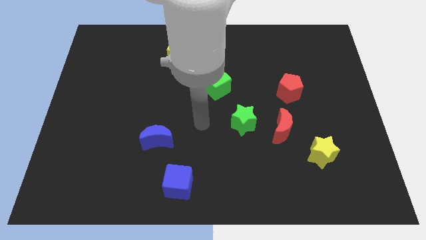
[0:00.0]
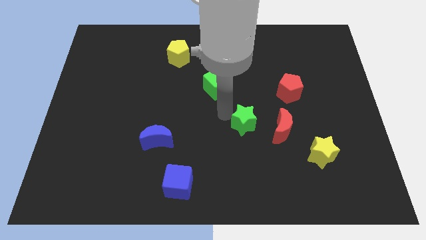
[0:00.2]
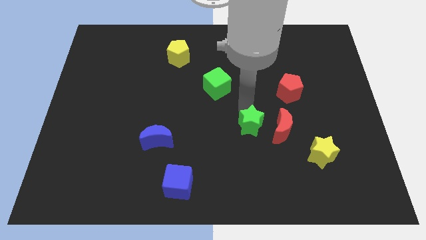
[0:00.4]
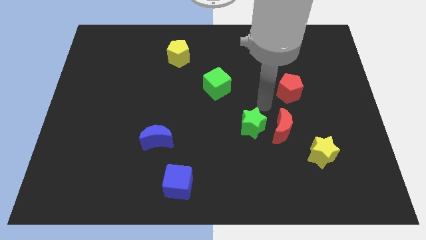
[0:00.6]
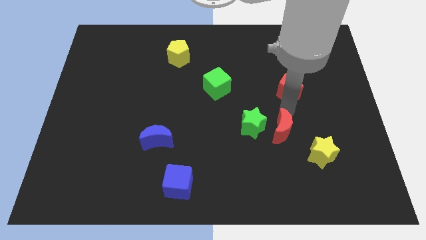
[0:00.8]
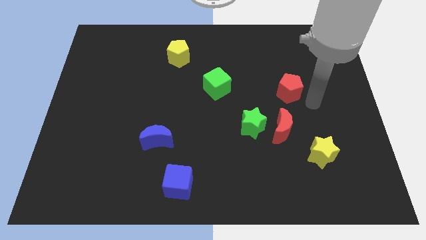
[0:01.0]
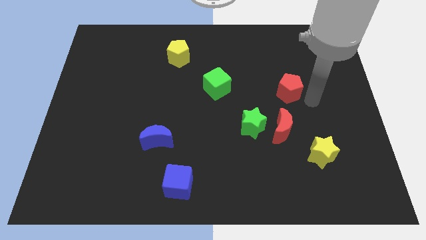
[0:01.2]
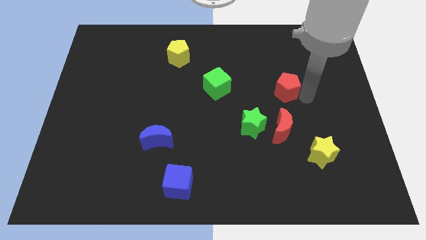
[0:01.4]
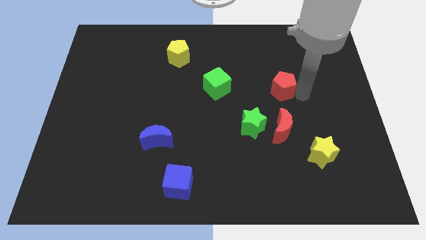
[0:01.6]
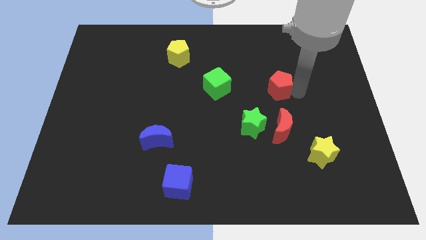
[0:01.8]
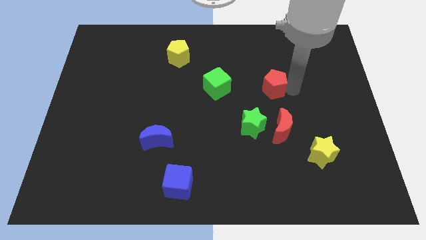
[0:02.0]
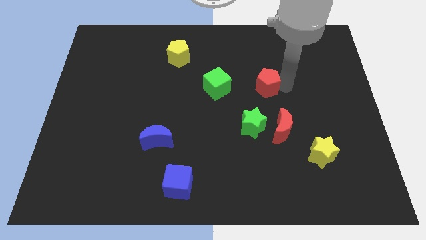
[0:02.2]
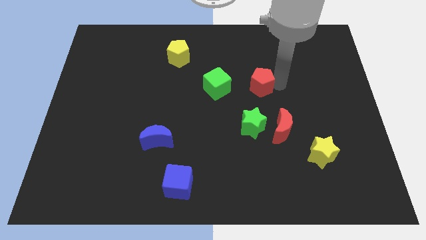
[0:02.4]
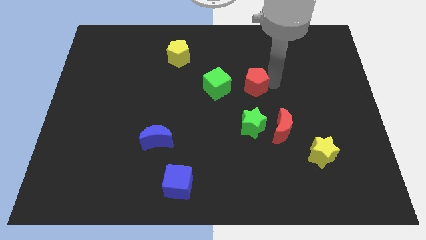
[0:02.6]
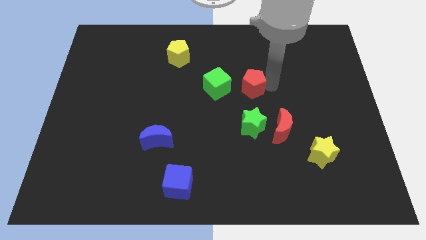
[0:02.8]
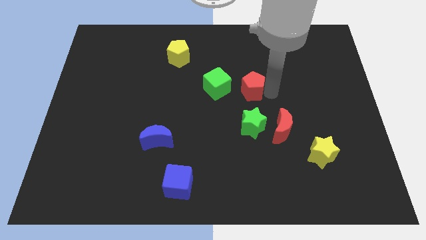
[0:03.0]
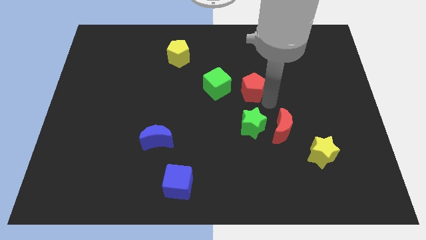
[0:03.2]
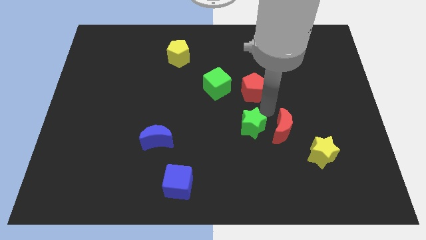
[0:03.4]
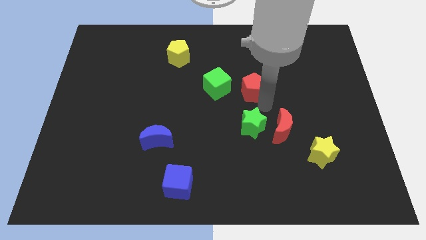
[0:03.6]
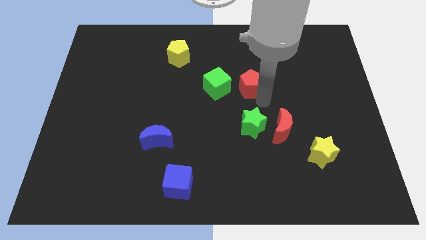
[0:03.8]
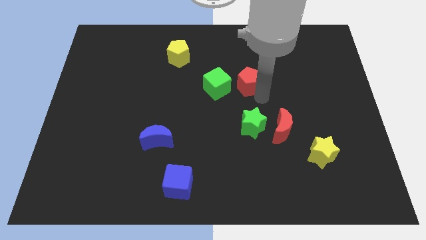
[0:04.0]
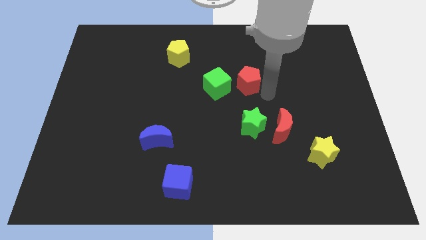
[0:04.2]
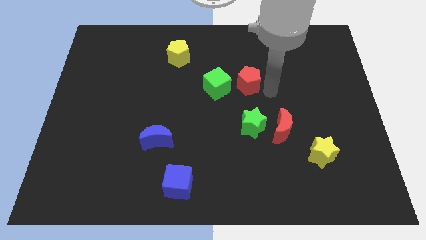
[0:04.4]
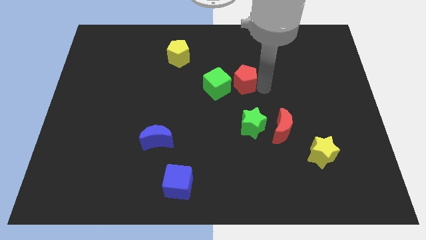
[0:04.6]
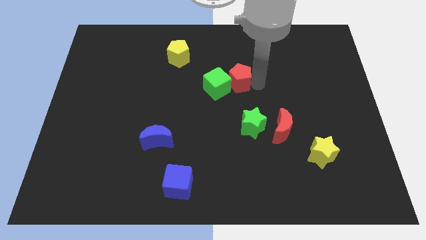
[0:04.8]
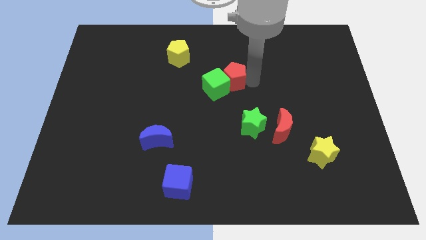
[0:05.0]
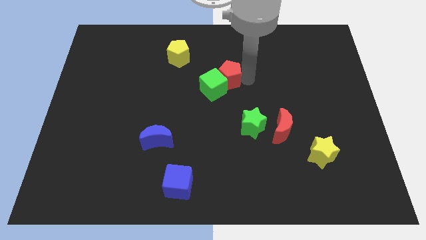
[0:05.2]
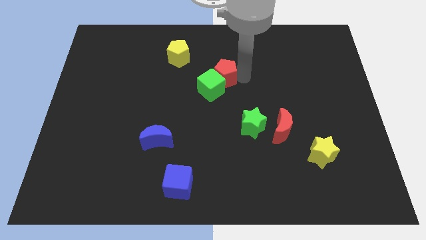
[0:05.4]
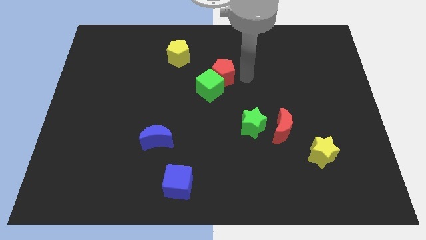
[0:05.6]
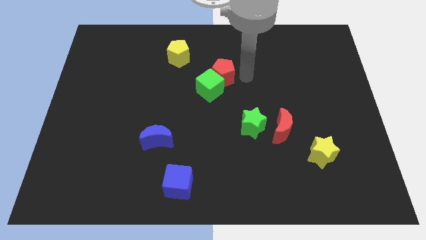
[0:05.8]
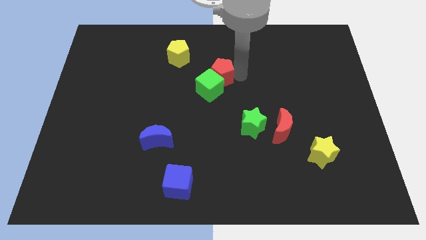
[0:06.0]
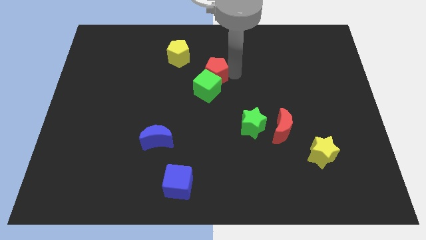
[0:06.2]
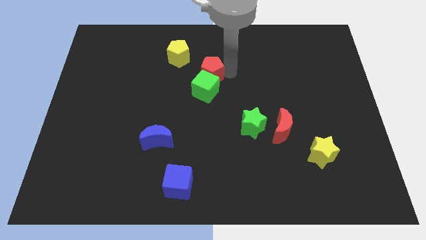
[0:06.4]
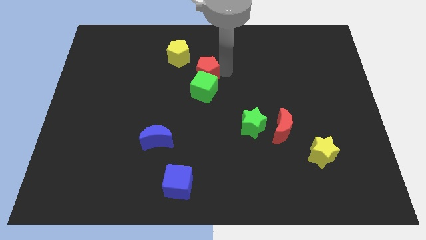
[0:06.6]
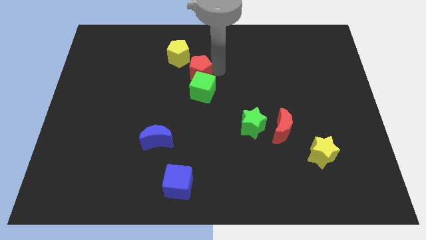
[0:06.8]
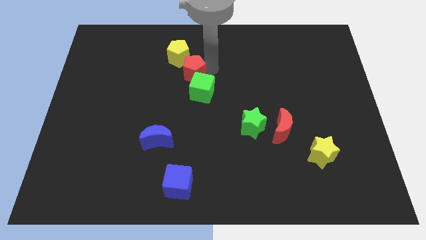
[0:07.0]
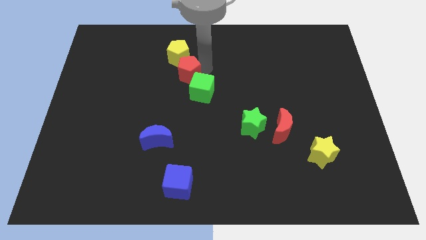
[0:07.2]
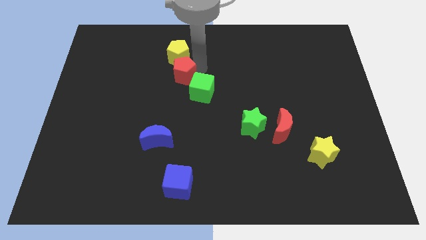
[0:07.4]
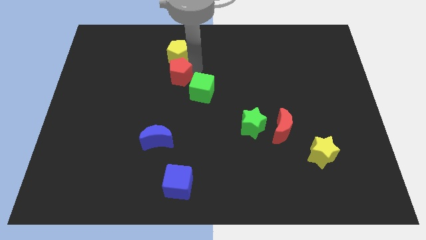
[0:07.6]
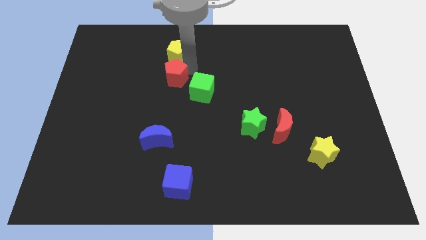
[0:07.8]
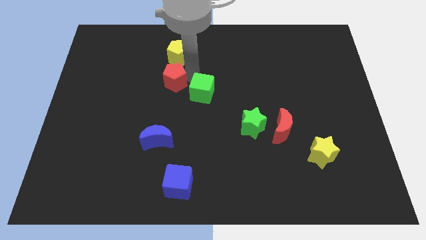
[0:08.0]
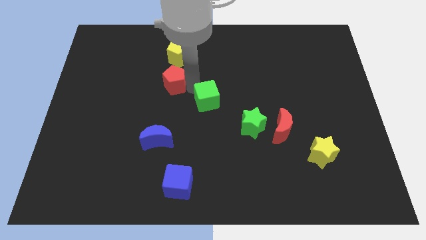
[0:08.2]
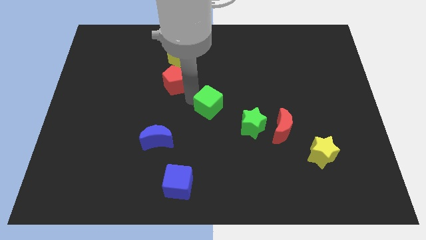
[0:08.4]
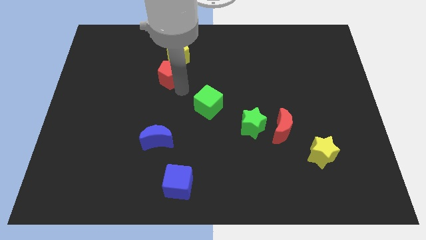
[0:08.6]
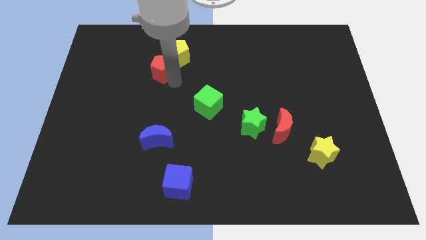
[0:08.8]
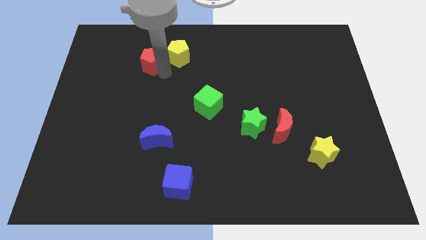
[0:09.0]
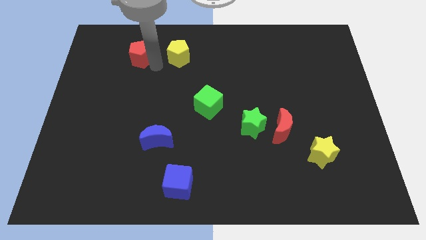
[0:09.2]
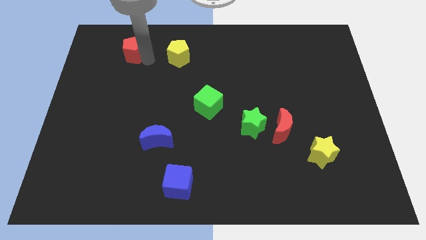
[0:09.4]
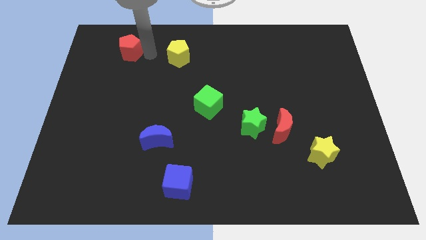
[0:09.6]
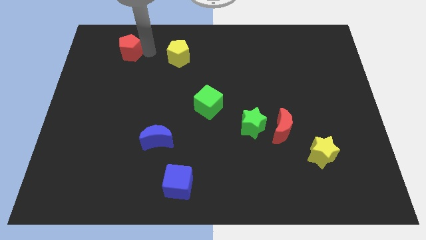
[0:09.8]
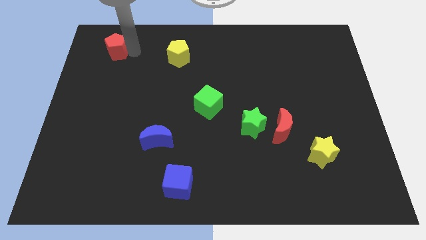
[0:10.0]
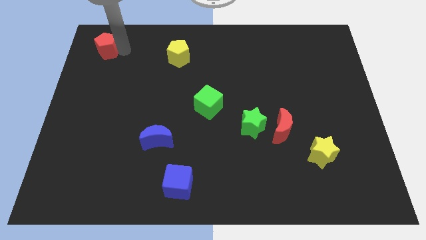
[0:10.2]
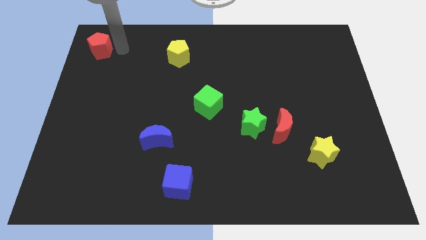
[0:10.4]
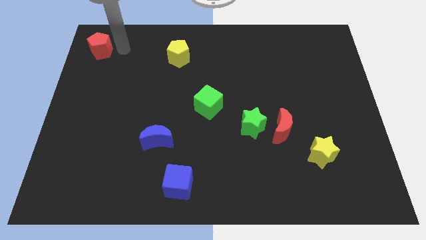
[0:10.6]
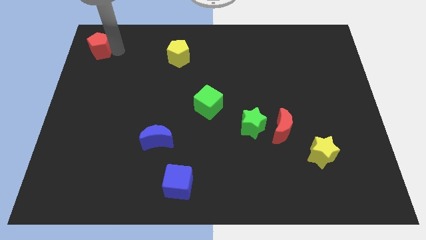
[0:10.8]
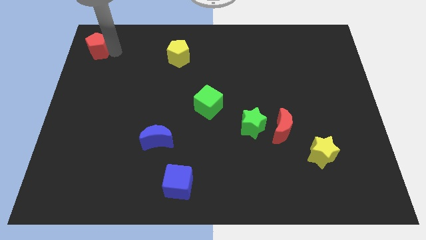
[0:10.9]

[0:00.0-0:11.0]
move the red pentagon to the top left

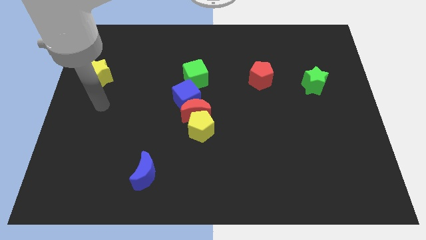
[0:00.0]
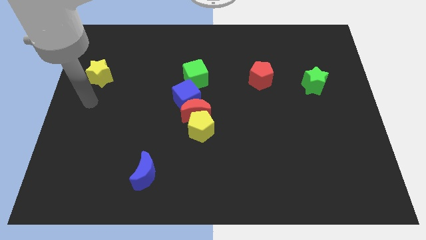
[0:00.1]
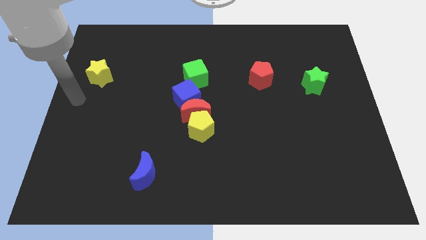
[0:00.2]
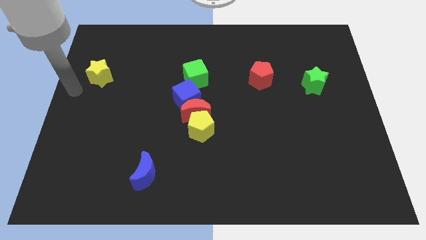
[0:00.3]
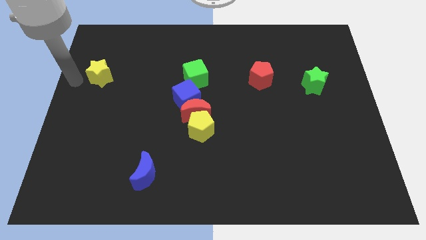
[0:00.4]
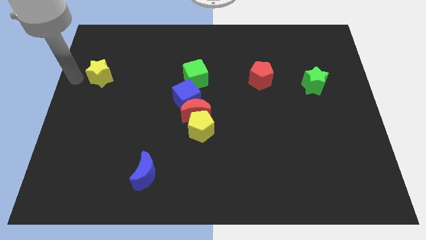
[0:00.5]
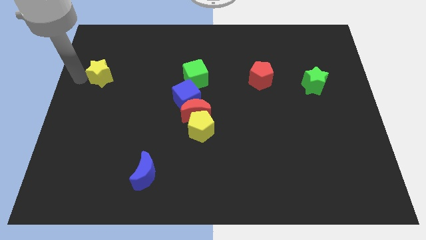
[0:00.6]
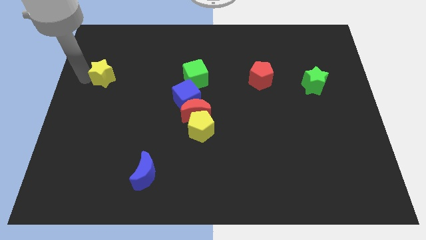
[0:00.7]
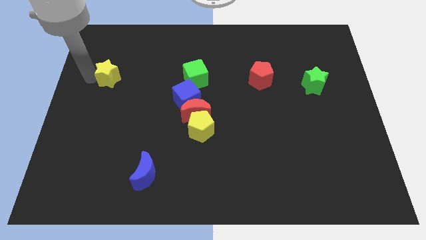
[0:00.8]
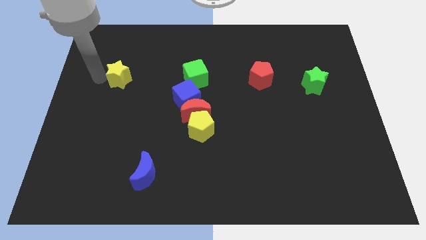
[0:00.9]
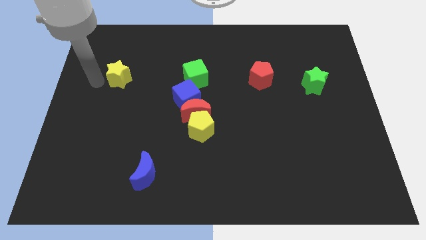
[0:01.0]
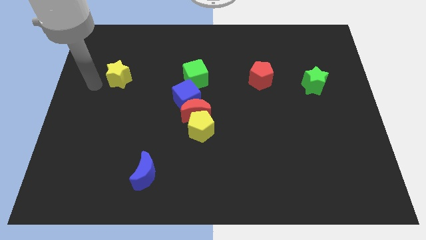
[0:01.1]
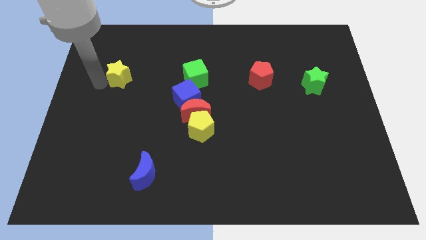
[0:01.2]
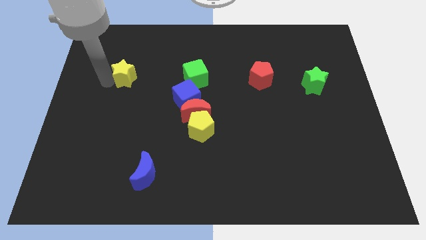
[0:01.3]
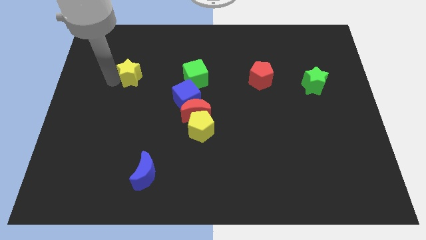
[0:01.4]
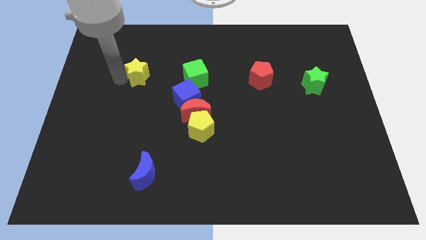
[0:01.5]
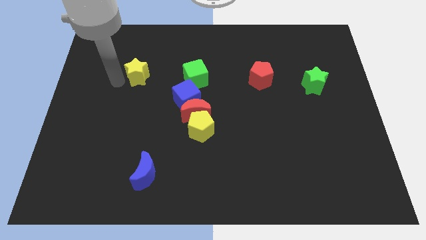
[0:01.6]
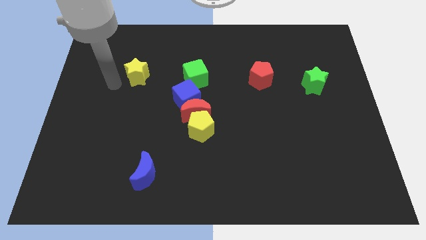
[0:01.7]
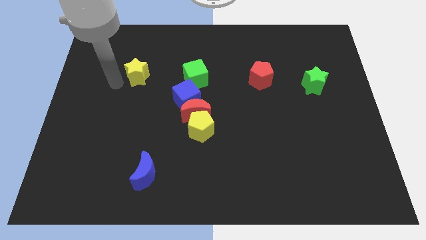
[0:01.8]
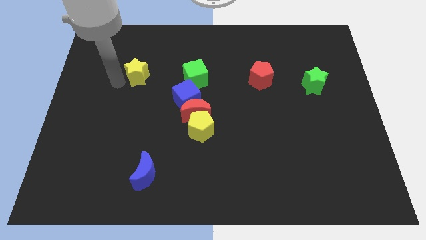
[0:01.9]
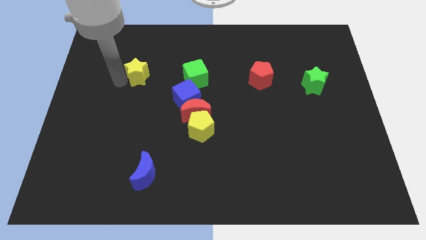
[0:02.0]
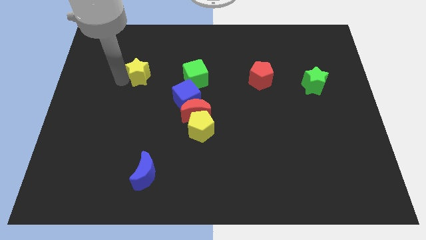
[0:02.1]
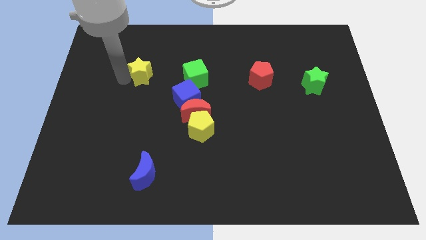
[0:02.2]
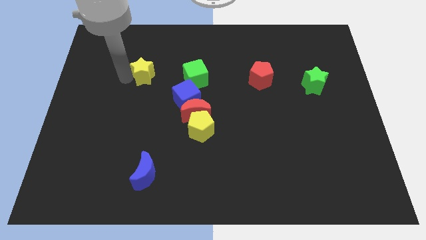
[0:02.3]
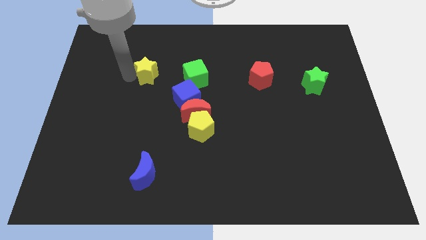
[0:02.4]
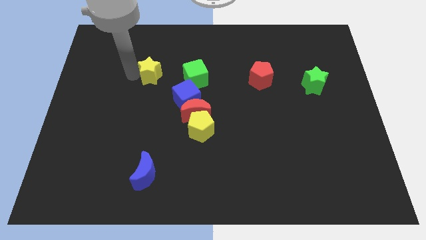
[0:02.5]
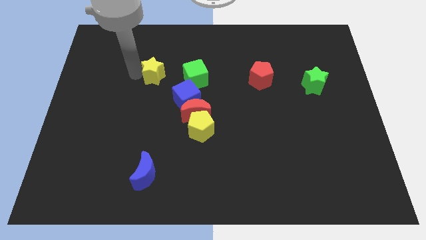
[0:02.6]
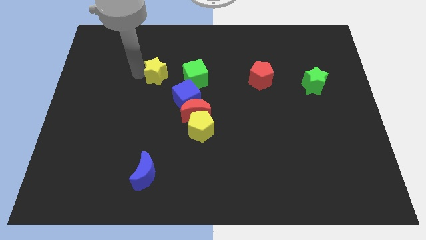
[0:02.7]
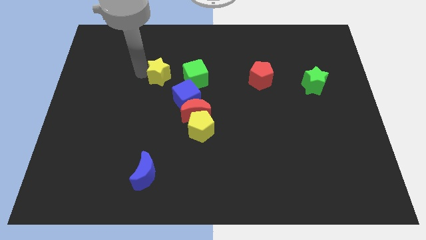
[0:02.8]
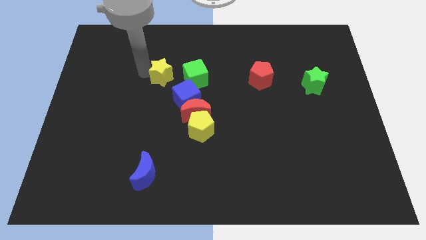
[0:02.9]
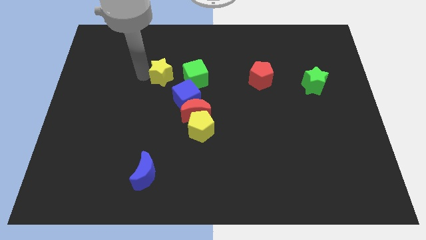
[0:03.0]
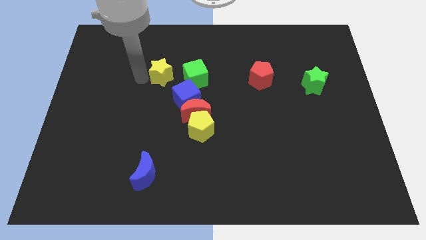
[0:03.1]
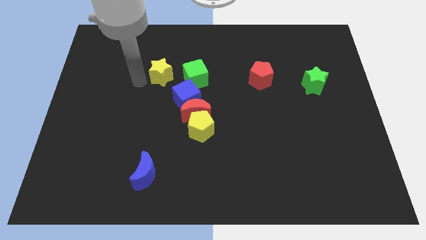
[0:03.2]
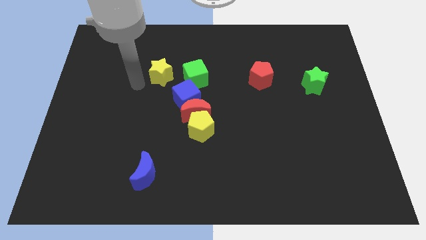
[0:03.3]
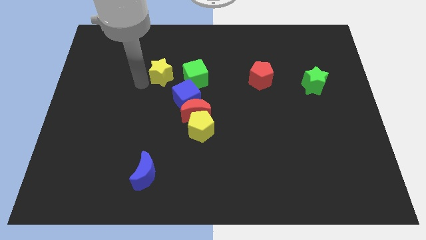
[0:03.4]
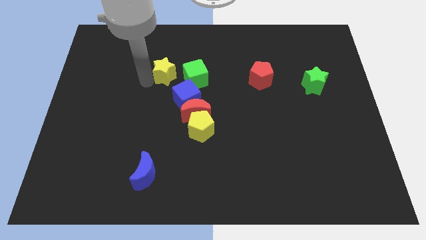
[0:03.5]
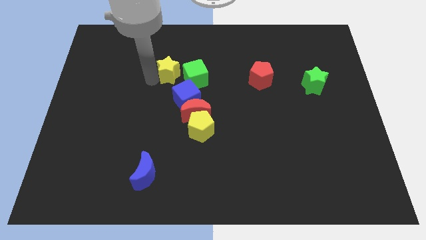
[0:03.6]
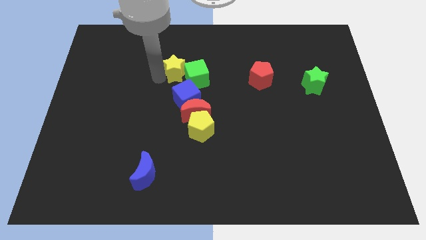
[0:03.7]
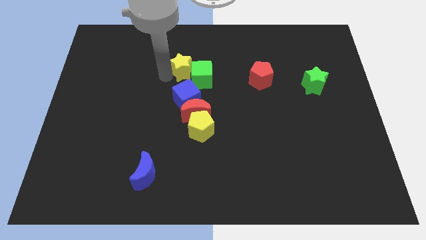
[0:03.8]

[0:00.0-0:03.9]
move the yellow star to the middle of the board
